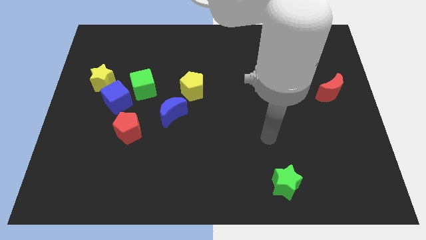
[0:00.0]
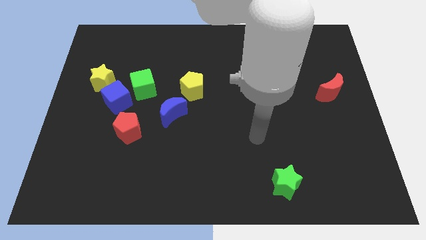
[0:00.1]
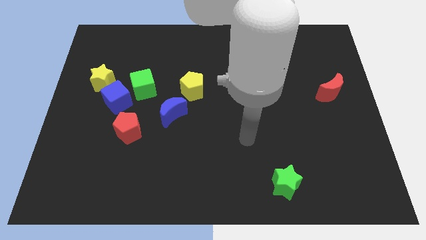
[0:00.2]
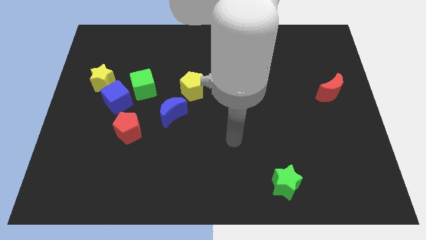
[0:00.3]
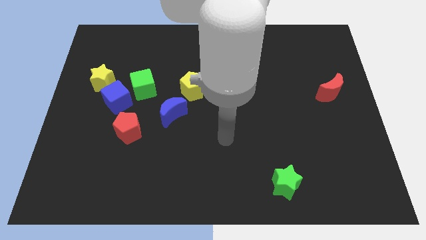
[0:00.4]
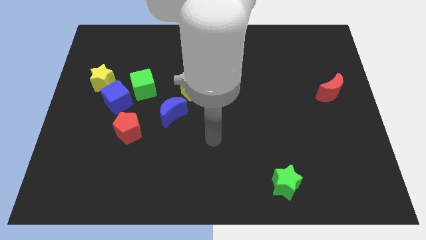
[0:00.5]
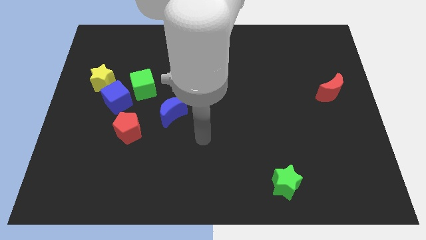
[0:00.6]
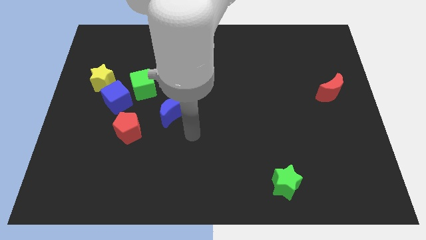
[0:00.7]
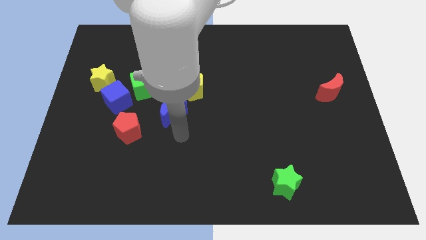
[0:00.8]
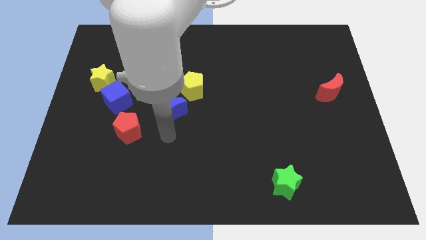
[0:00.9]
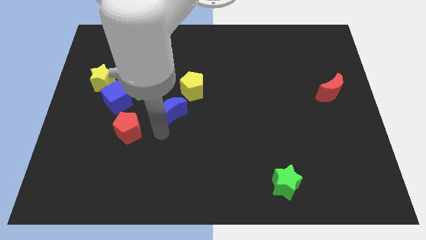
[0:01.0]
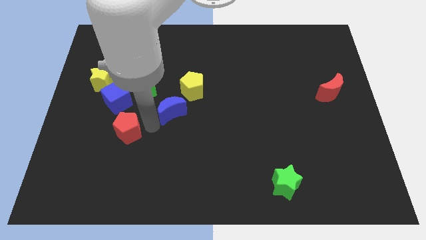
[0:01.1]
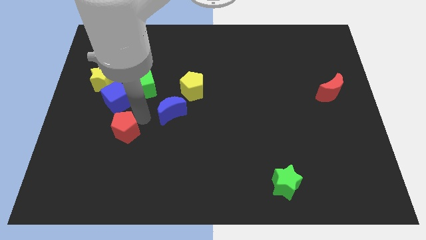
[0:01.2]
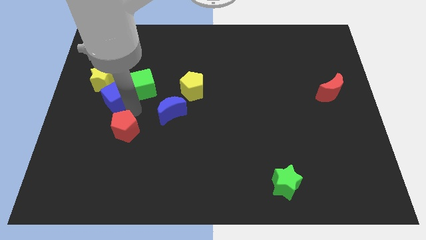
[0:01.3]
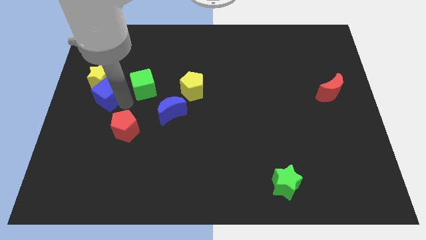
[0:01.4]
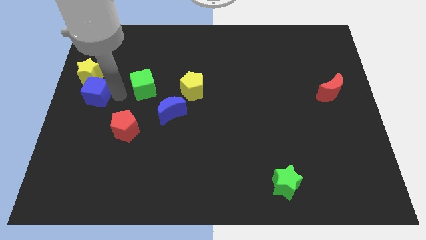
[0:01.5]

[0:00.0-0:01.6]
separate the green cube from the blue cube

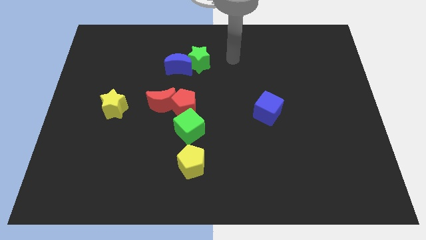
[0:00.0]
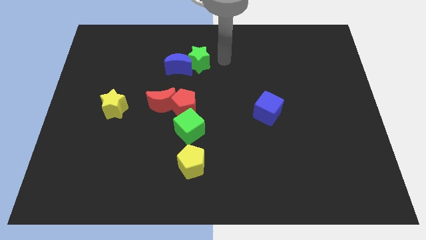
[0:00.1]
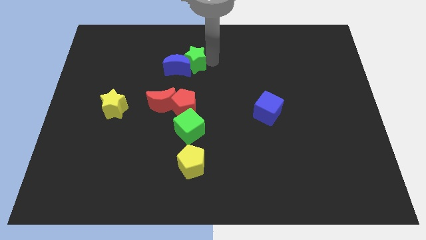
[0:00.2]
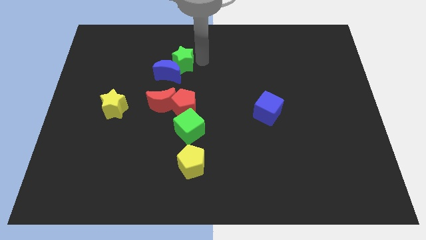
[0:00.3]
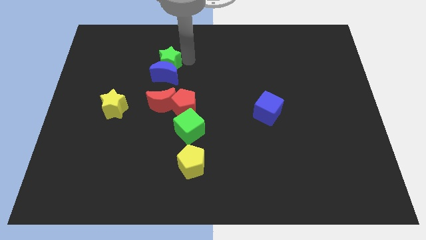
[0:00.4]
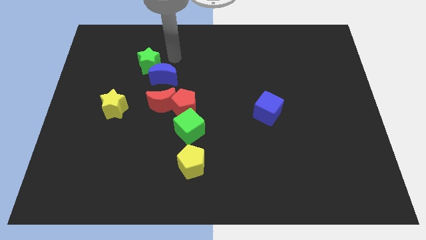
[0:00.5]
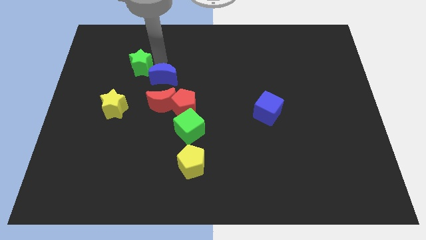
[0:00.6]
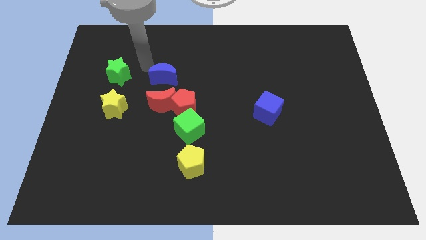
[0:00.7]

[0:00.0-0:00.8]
move the blue moon away from the green star

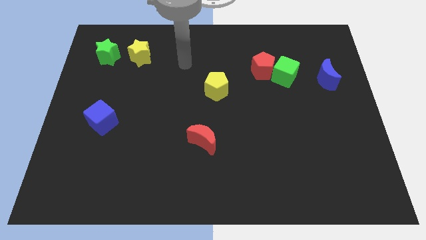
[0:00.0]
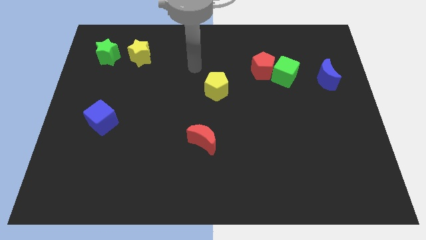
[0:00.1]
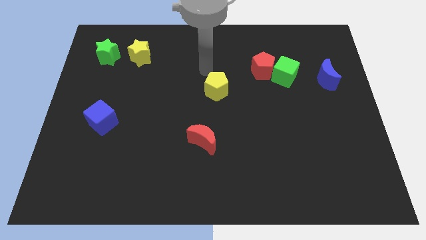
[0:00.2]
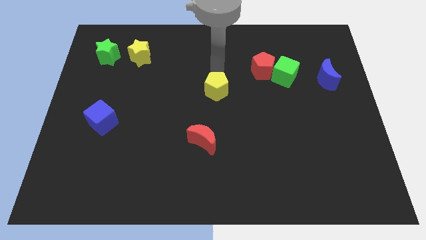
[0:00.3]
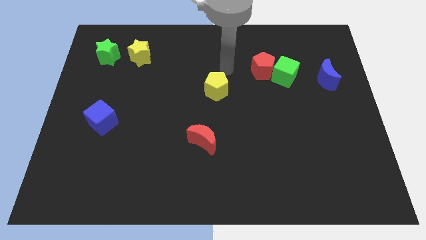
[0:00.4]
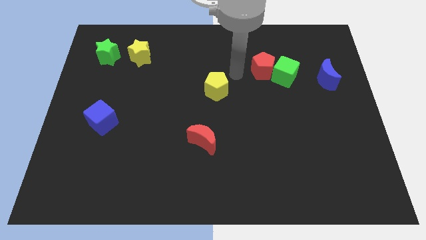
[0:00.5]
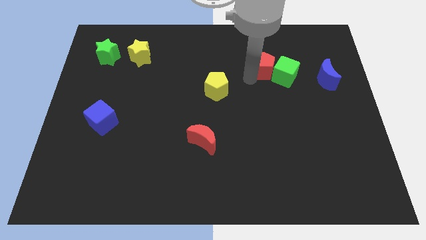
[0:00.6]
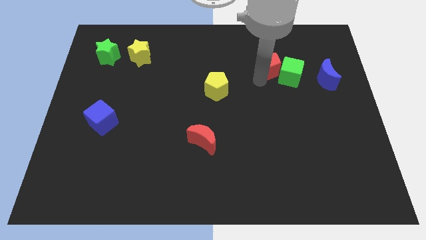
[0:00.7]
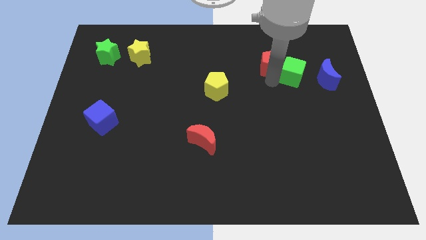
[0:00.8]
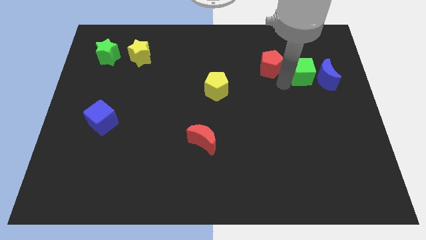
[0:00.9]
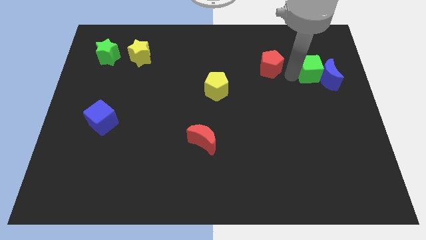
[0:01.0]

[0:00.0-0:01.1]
move the red pentagon away from the green cube

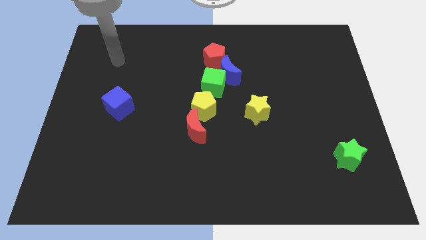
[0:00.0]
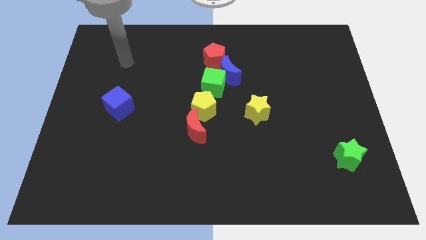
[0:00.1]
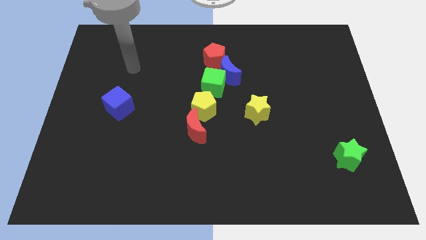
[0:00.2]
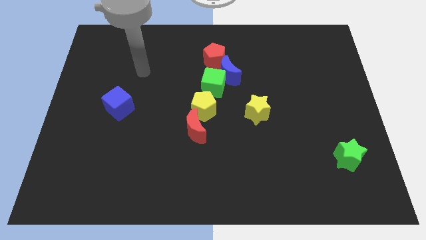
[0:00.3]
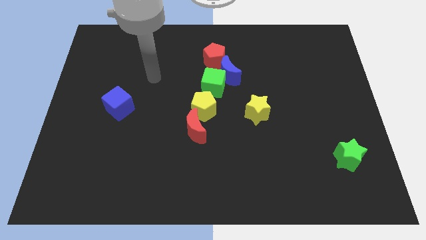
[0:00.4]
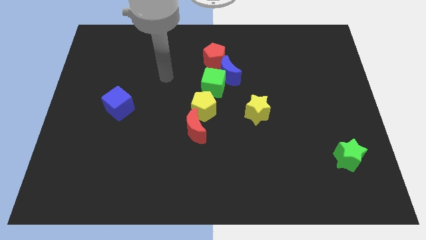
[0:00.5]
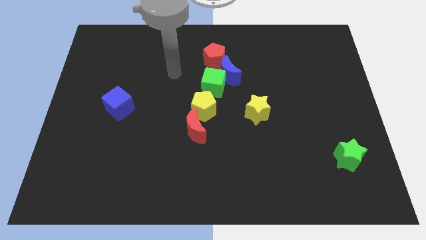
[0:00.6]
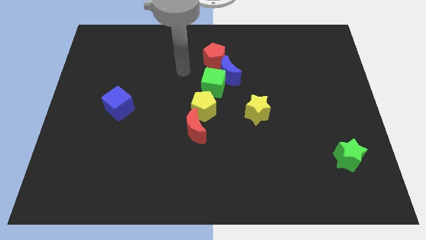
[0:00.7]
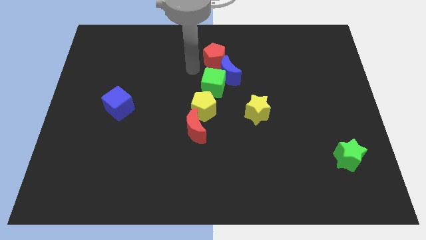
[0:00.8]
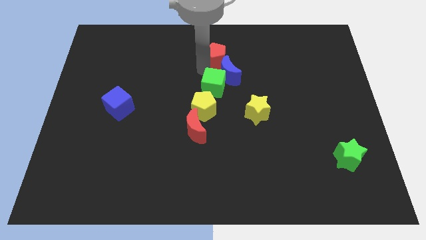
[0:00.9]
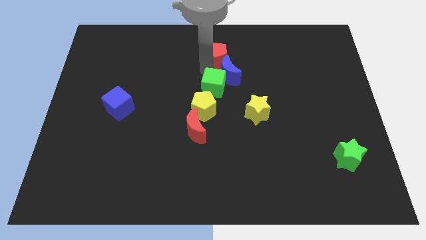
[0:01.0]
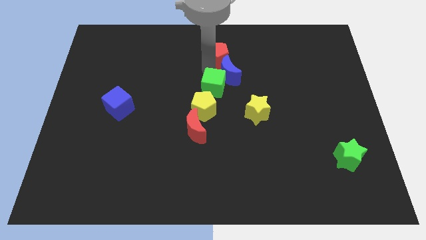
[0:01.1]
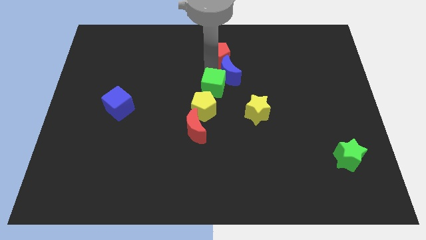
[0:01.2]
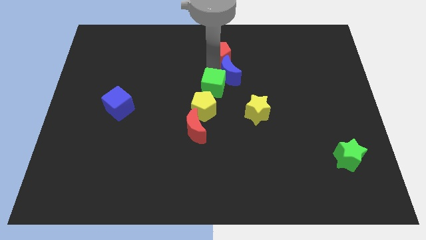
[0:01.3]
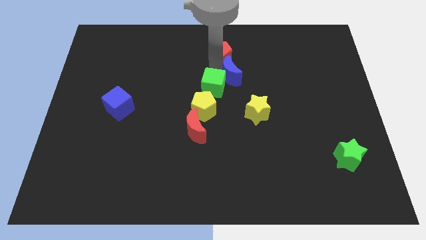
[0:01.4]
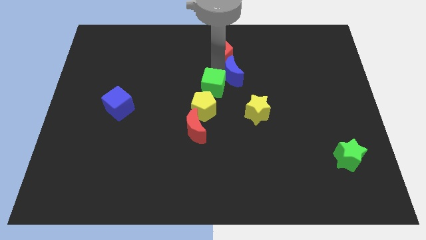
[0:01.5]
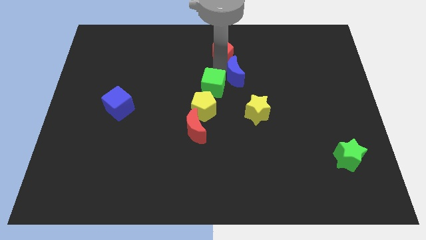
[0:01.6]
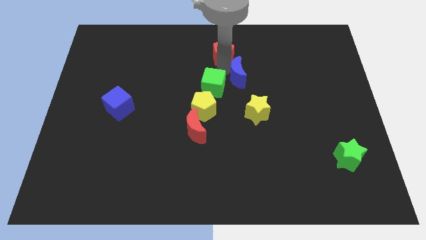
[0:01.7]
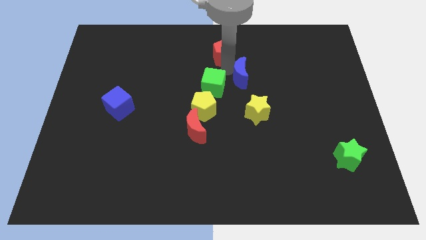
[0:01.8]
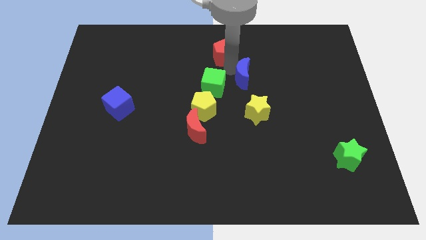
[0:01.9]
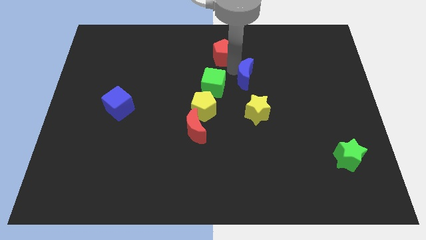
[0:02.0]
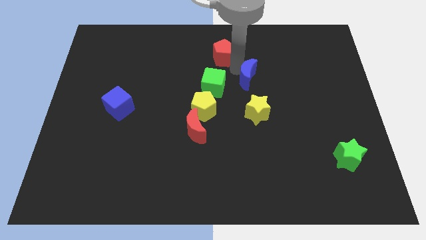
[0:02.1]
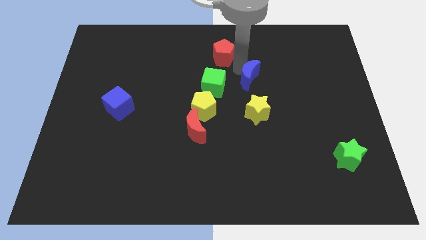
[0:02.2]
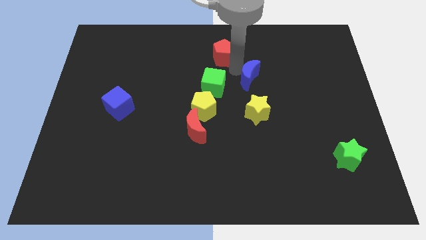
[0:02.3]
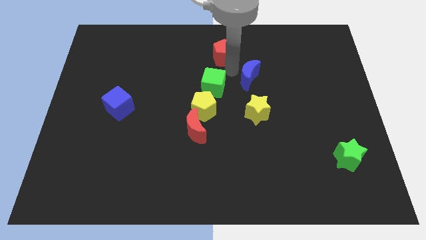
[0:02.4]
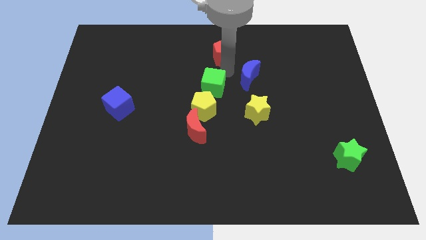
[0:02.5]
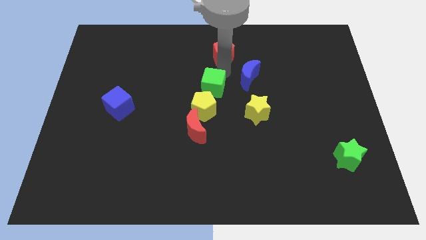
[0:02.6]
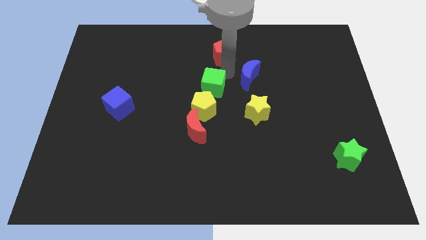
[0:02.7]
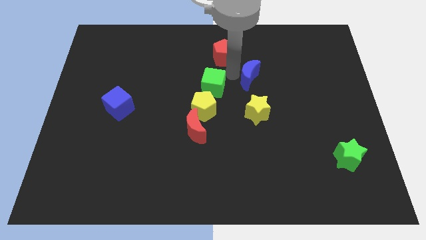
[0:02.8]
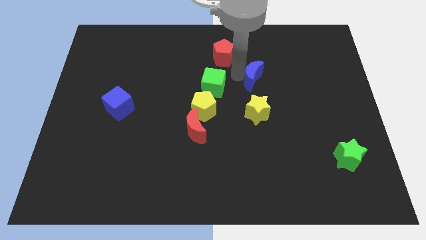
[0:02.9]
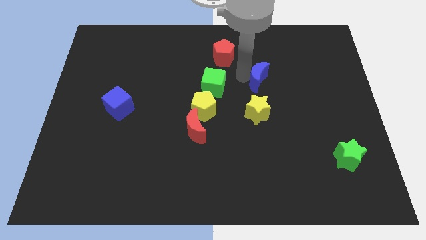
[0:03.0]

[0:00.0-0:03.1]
separate the blue moon from the green cube and red pentagon

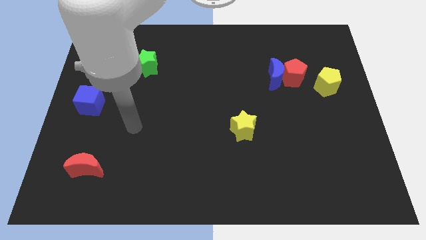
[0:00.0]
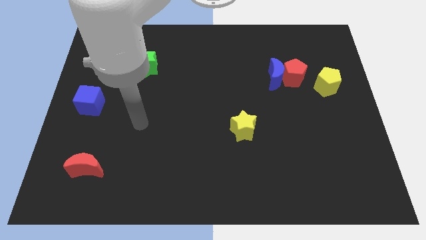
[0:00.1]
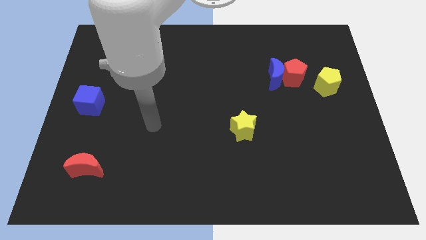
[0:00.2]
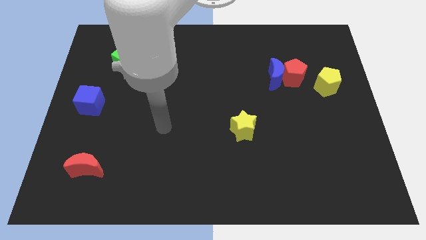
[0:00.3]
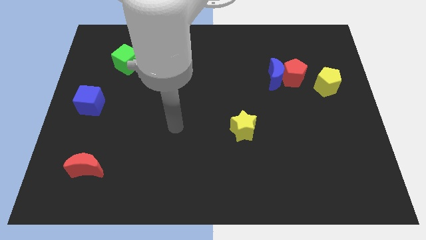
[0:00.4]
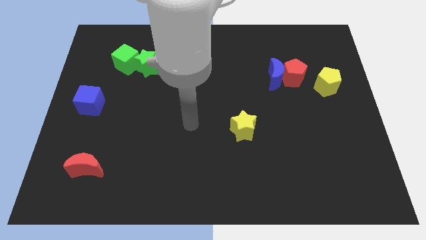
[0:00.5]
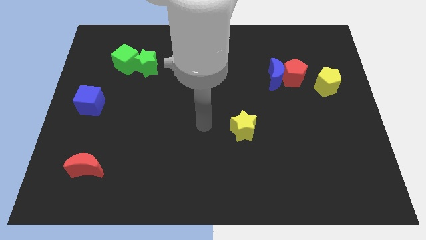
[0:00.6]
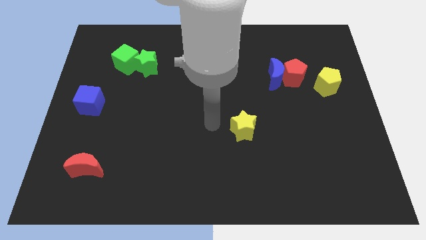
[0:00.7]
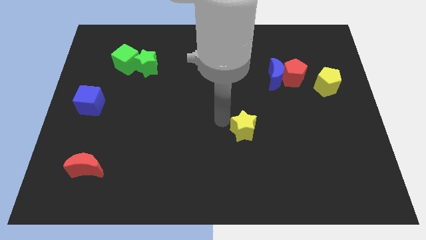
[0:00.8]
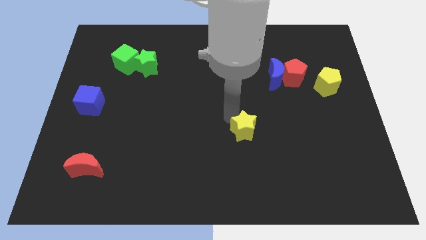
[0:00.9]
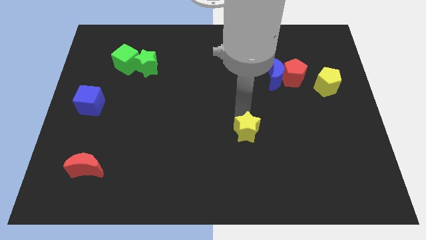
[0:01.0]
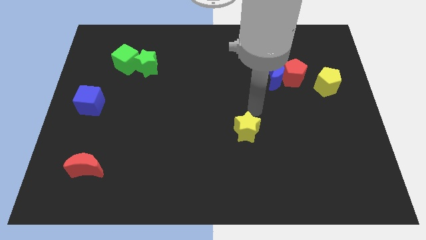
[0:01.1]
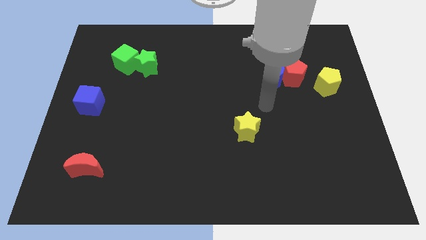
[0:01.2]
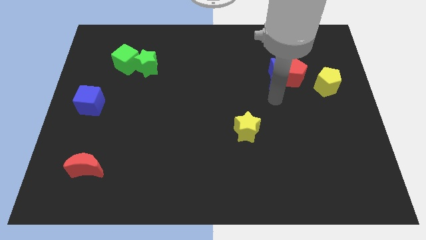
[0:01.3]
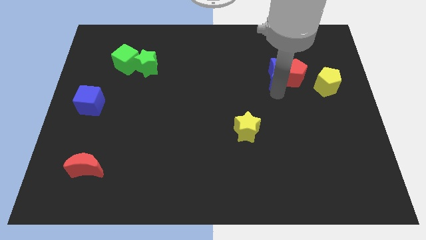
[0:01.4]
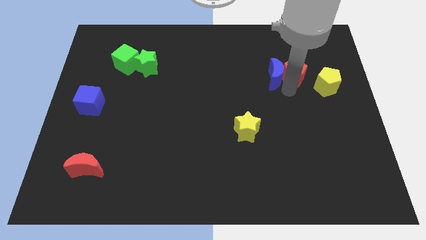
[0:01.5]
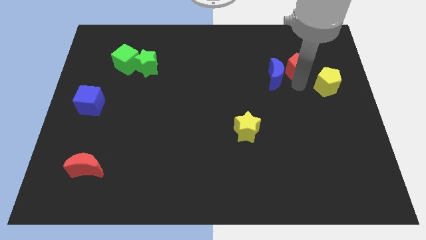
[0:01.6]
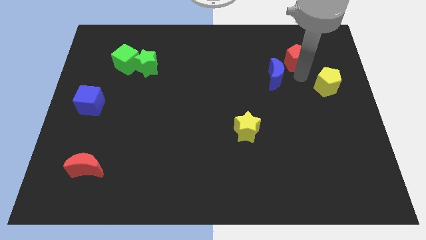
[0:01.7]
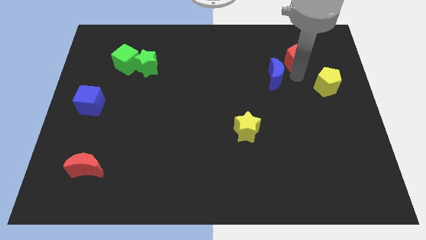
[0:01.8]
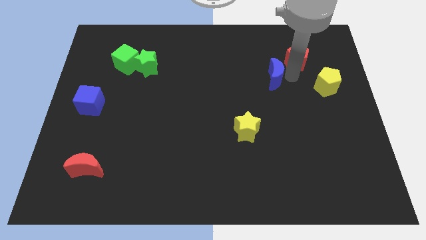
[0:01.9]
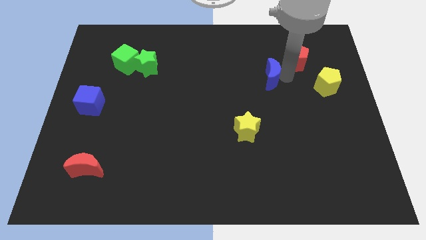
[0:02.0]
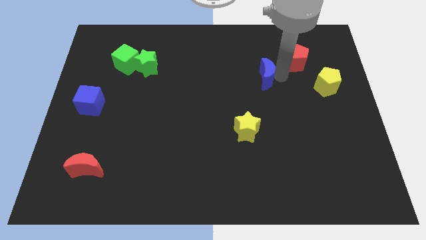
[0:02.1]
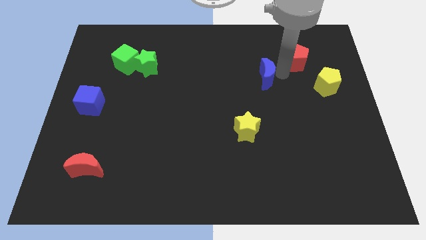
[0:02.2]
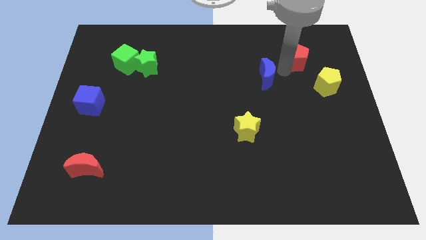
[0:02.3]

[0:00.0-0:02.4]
move the blue moon away from the red pentagon
